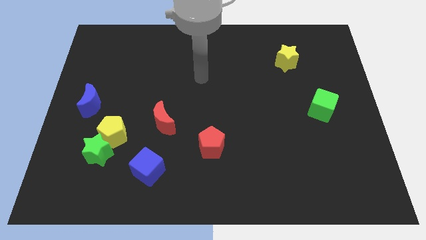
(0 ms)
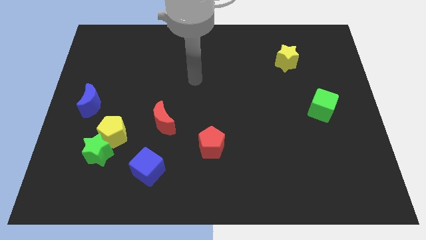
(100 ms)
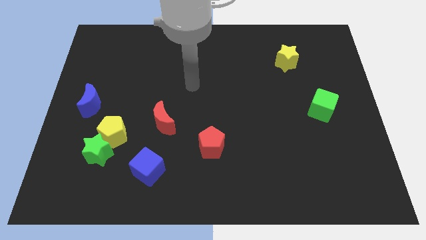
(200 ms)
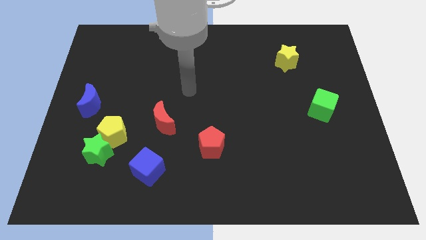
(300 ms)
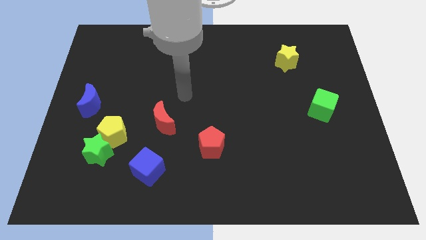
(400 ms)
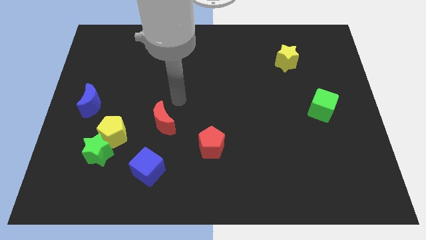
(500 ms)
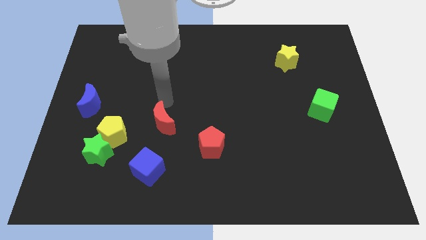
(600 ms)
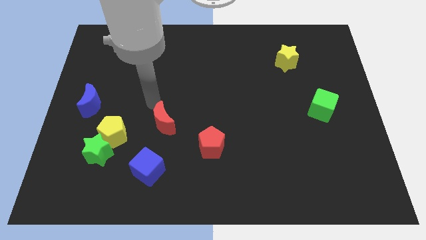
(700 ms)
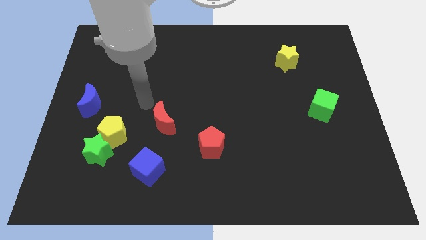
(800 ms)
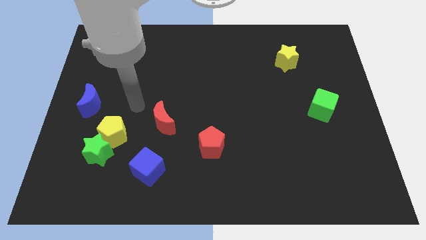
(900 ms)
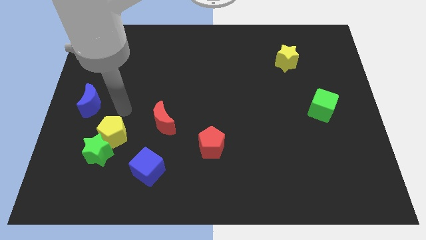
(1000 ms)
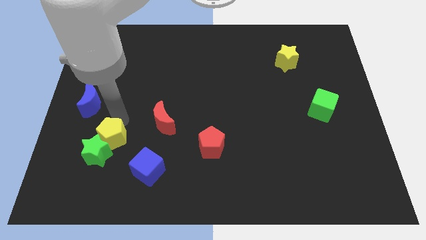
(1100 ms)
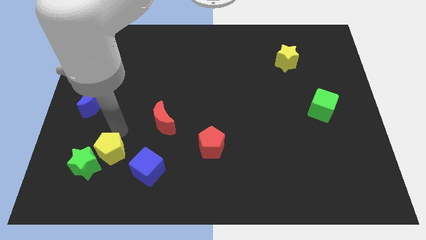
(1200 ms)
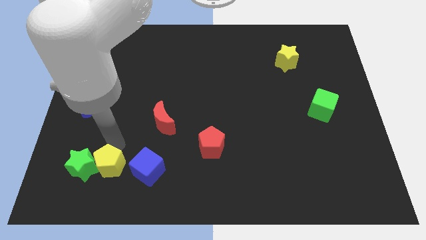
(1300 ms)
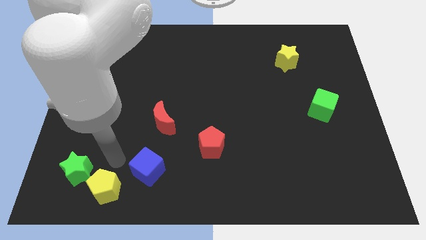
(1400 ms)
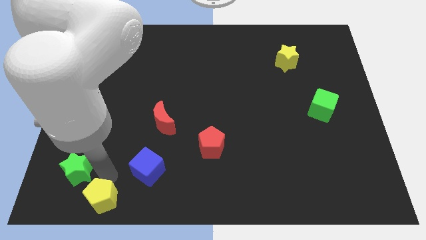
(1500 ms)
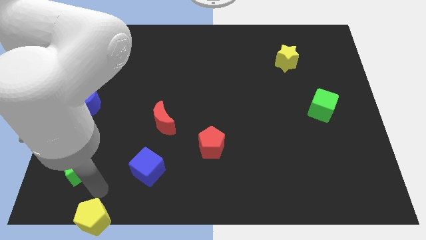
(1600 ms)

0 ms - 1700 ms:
move the green star away from the yellow pentagon

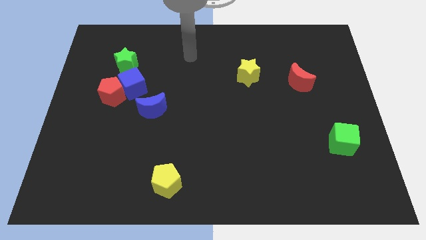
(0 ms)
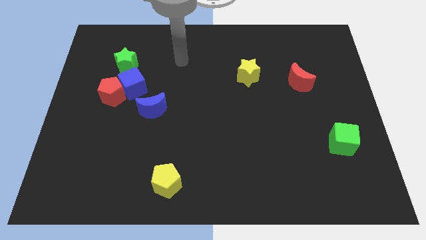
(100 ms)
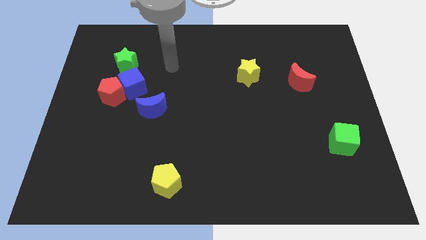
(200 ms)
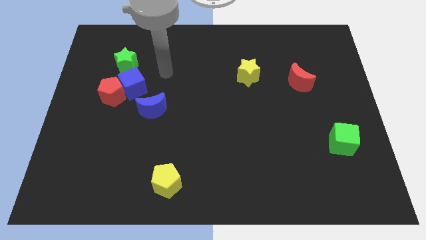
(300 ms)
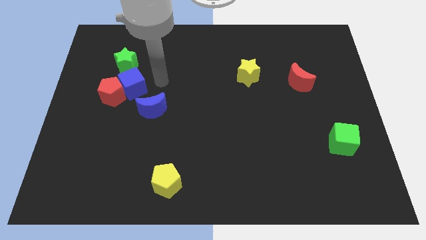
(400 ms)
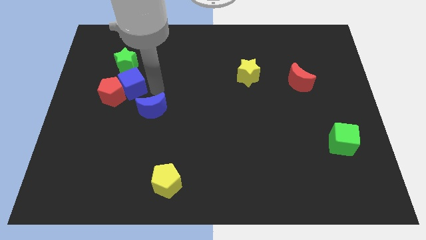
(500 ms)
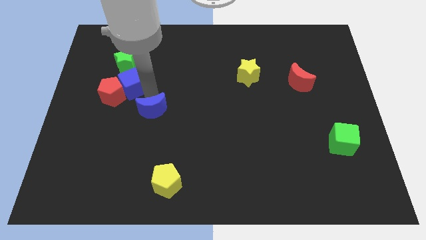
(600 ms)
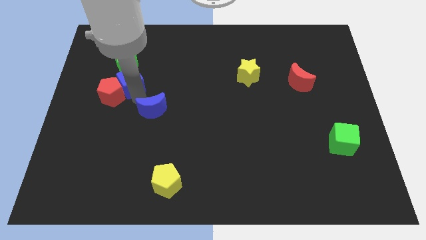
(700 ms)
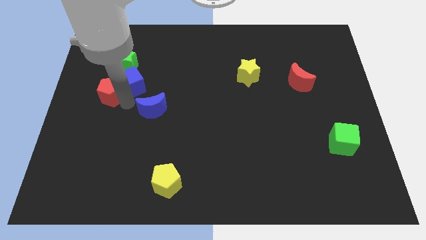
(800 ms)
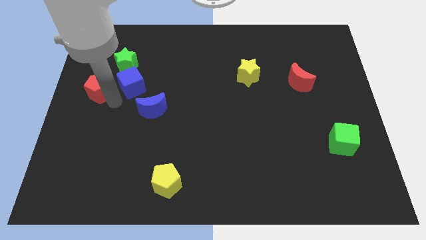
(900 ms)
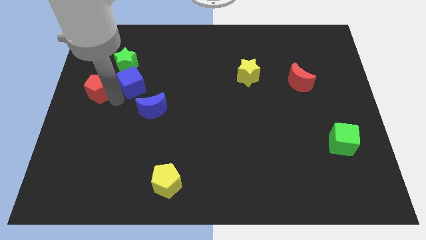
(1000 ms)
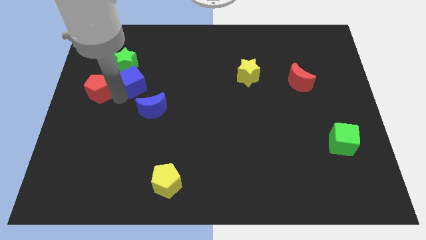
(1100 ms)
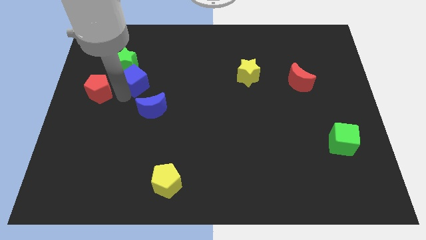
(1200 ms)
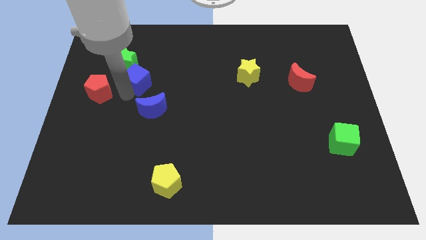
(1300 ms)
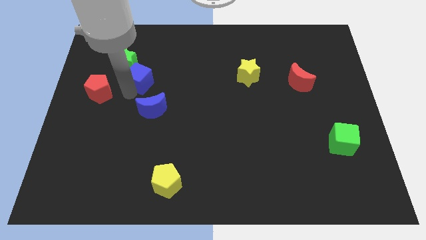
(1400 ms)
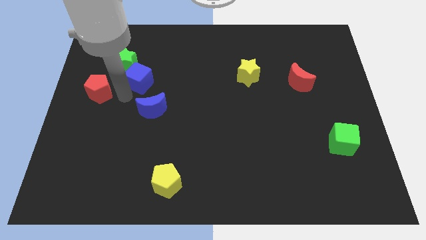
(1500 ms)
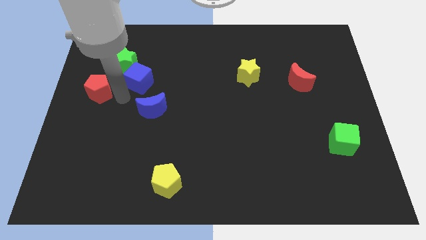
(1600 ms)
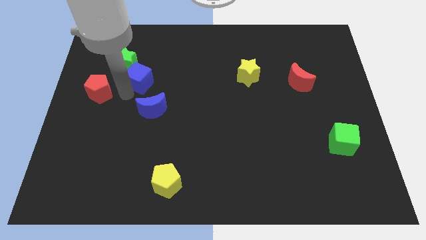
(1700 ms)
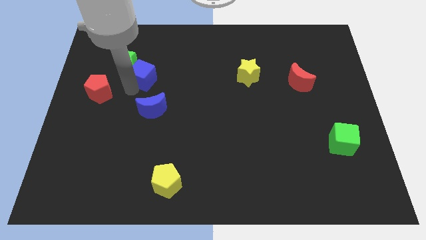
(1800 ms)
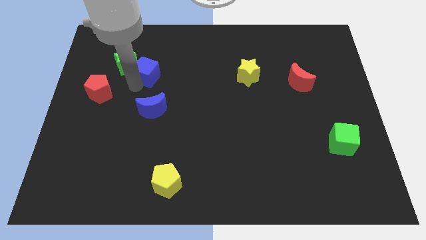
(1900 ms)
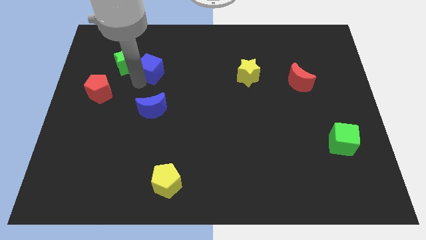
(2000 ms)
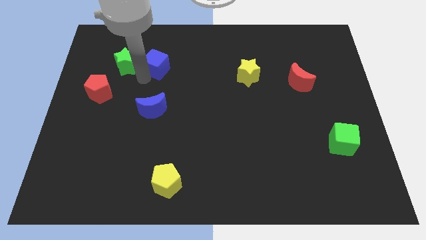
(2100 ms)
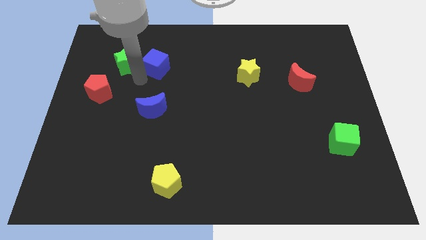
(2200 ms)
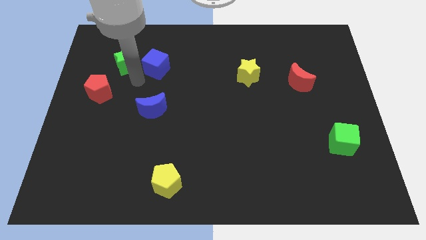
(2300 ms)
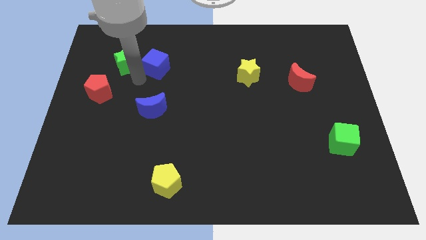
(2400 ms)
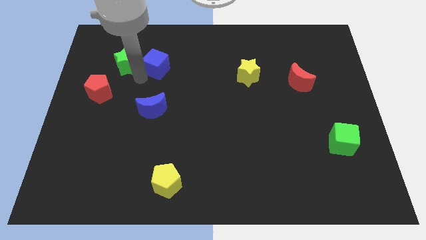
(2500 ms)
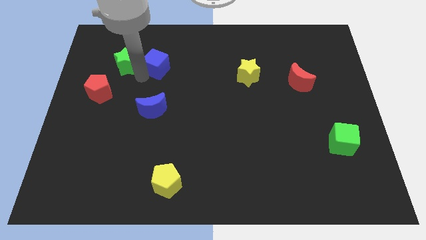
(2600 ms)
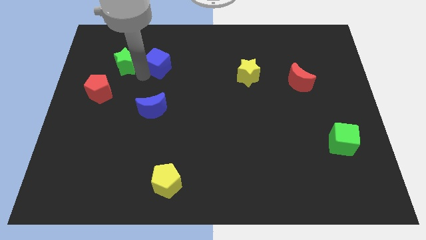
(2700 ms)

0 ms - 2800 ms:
move the blue cube away from the red pentagon, green star, and blue moon

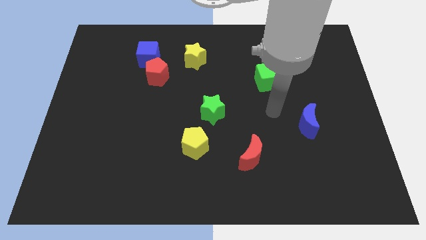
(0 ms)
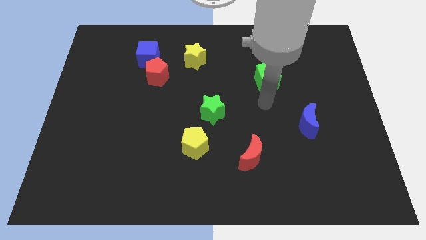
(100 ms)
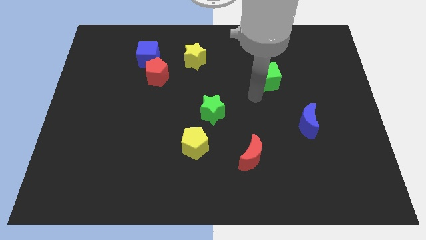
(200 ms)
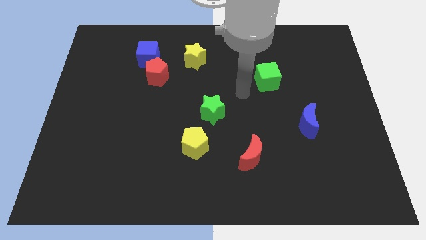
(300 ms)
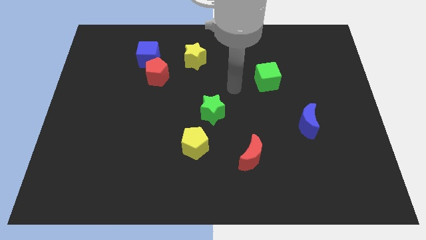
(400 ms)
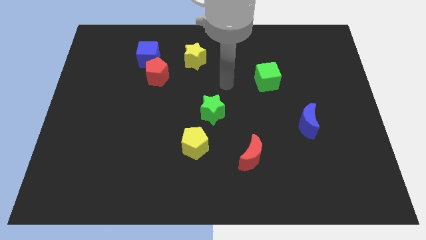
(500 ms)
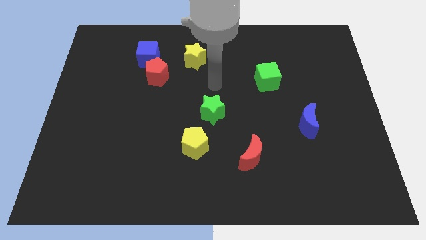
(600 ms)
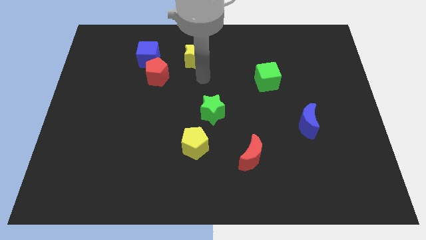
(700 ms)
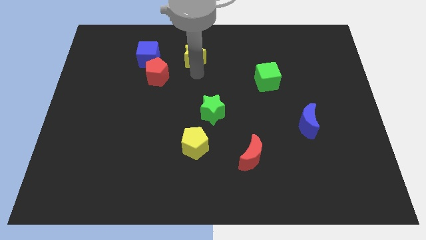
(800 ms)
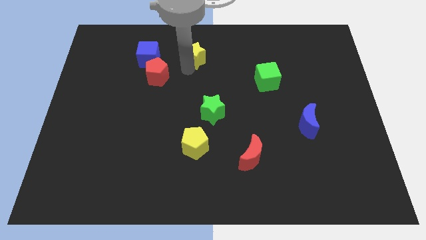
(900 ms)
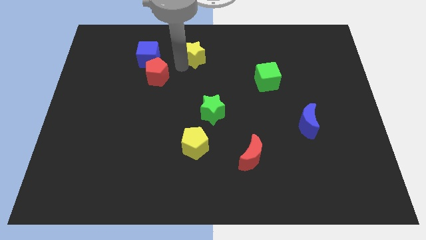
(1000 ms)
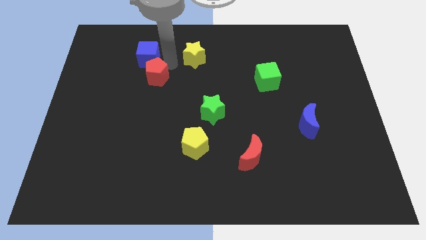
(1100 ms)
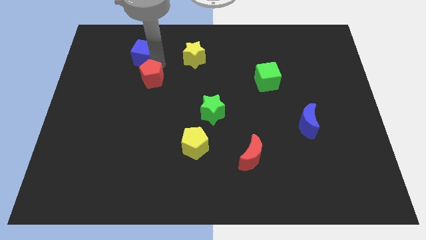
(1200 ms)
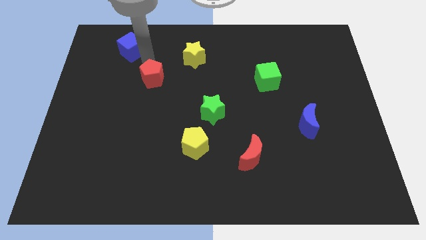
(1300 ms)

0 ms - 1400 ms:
pull the red pentagon apart from the blue cube

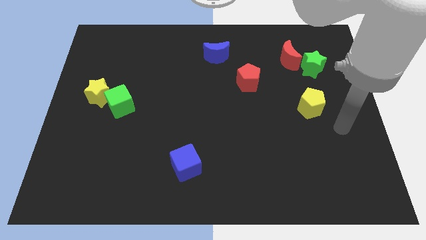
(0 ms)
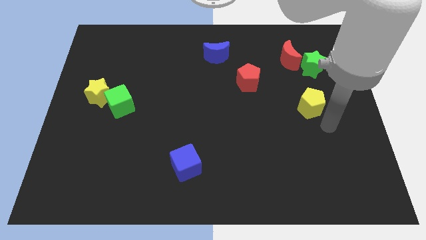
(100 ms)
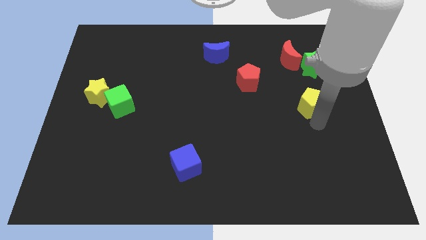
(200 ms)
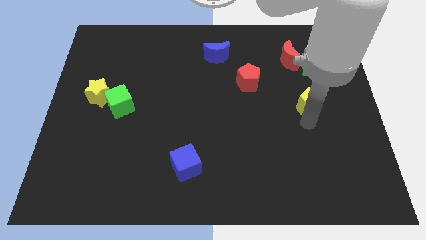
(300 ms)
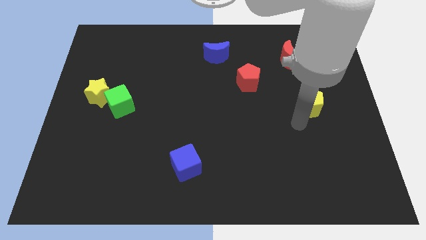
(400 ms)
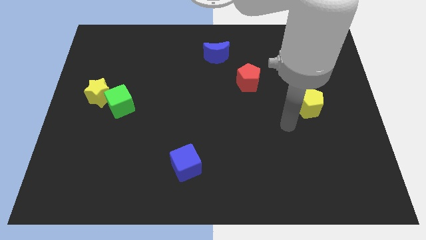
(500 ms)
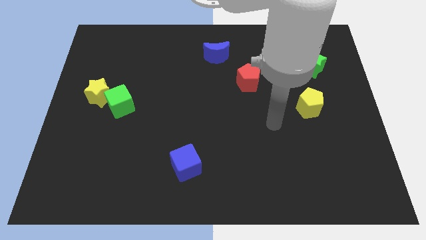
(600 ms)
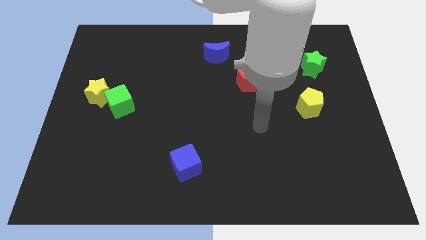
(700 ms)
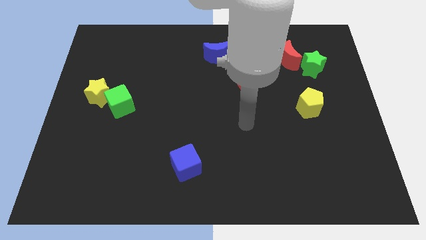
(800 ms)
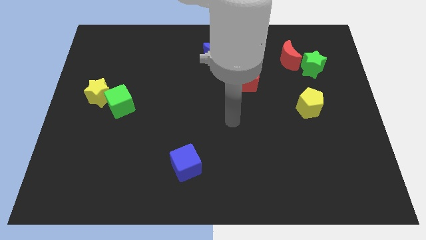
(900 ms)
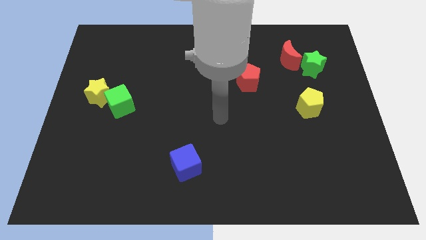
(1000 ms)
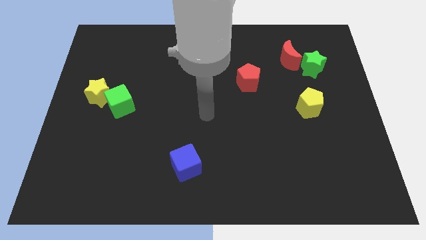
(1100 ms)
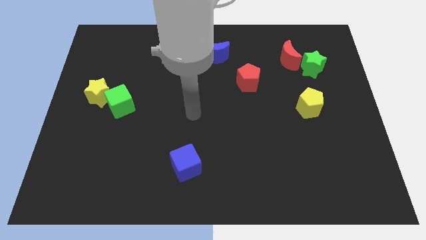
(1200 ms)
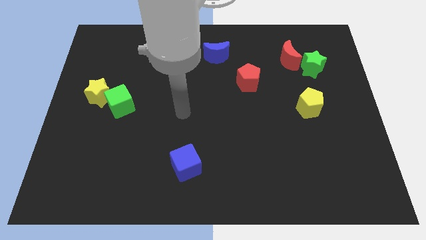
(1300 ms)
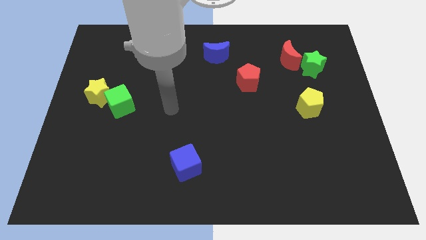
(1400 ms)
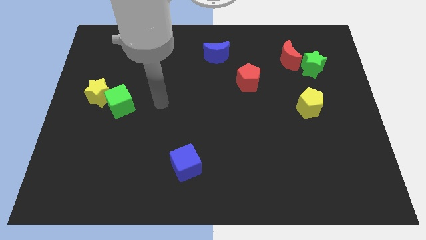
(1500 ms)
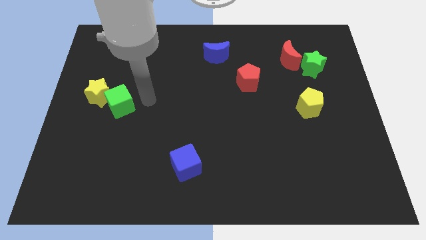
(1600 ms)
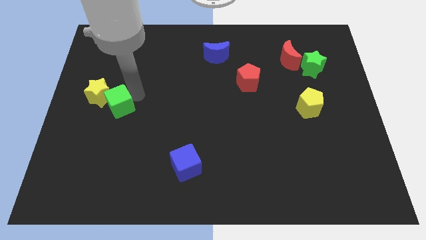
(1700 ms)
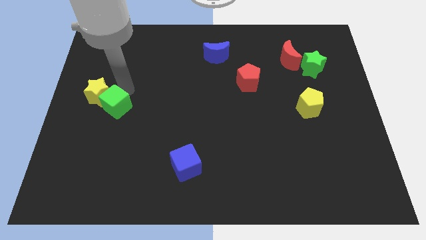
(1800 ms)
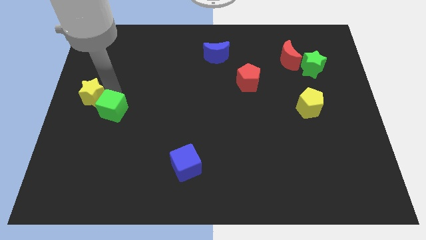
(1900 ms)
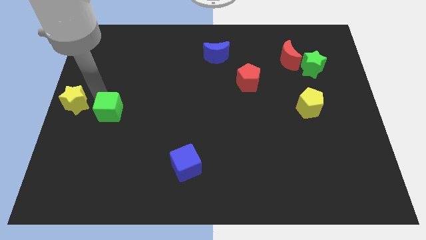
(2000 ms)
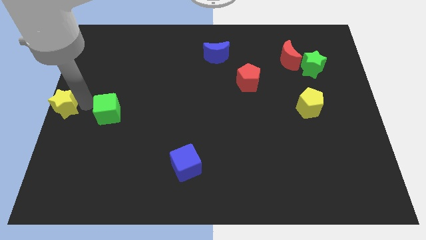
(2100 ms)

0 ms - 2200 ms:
pull the green cube apart from the yellow star

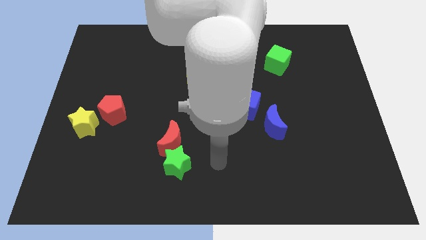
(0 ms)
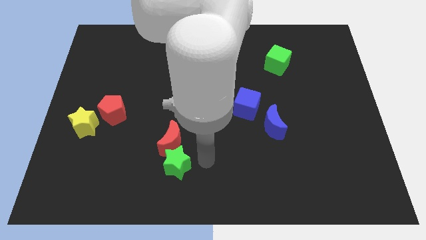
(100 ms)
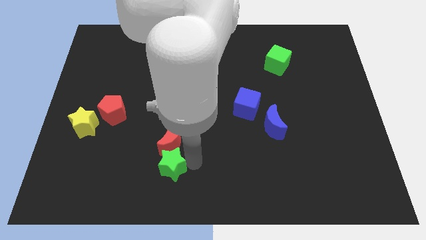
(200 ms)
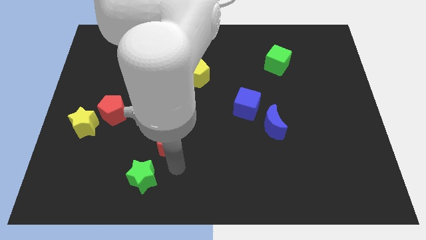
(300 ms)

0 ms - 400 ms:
pull the red moon apart from the green star

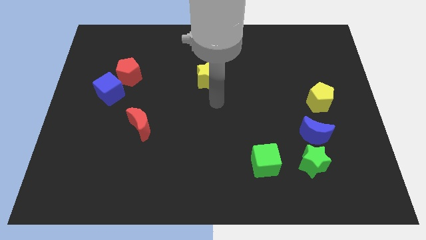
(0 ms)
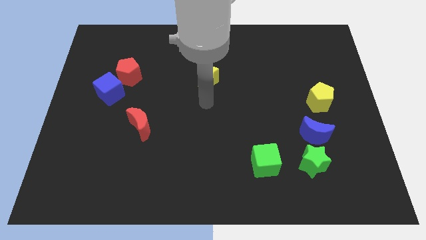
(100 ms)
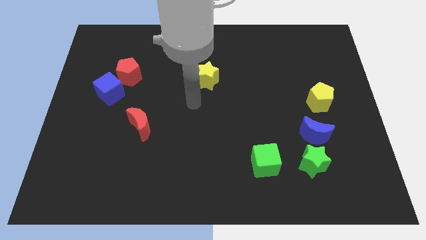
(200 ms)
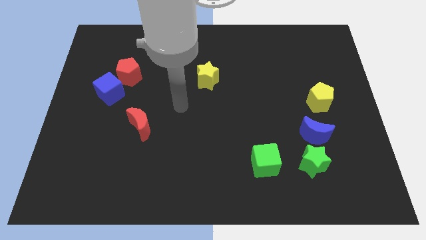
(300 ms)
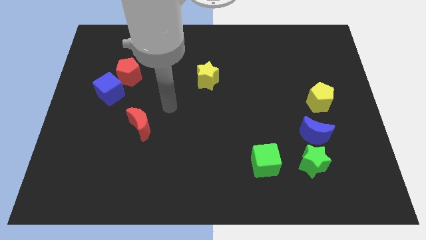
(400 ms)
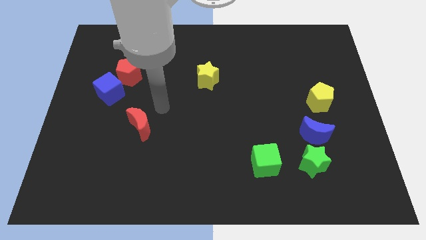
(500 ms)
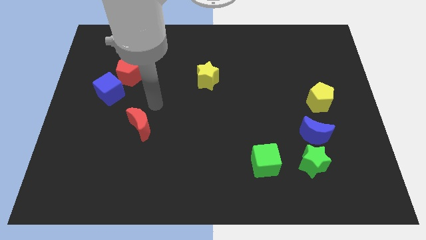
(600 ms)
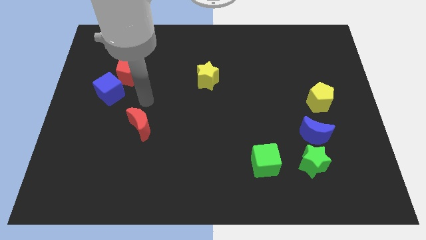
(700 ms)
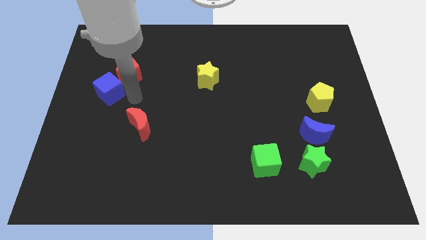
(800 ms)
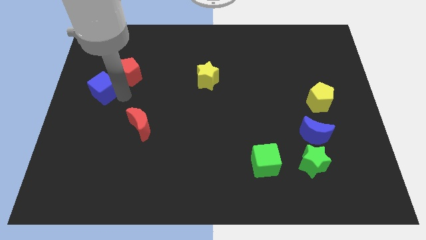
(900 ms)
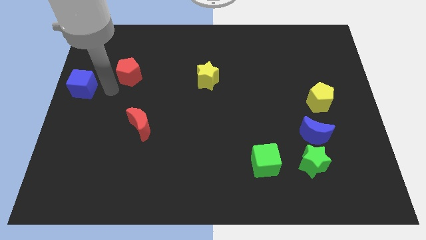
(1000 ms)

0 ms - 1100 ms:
move the red pentagon away from the blue cube
